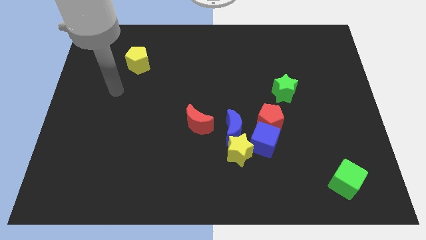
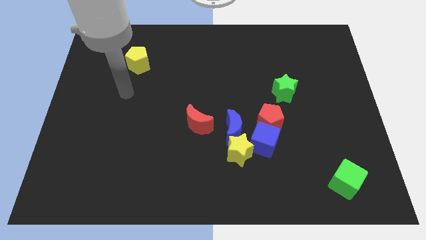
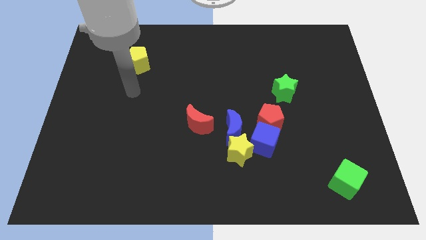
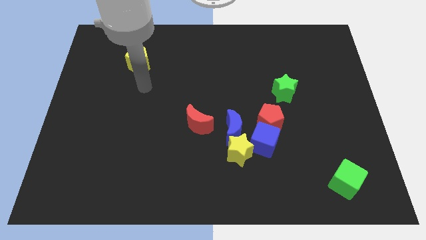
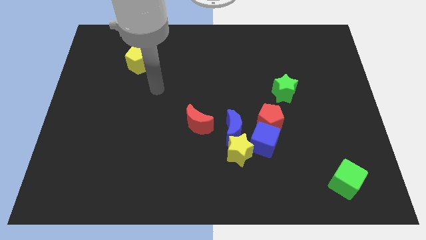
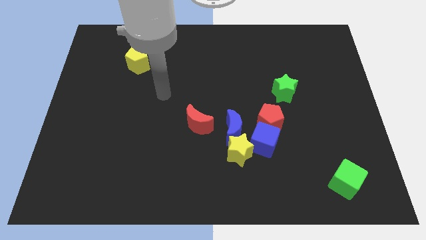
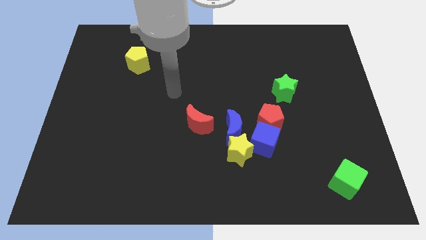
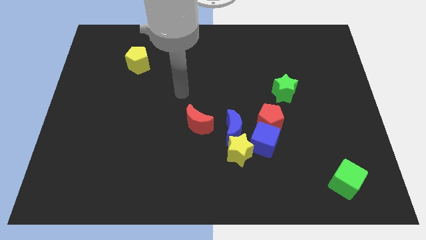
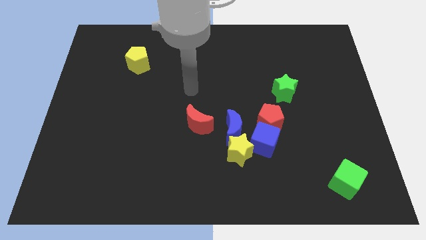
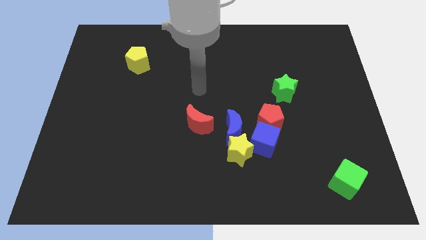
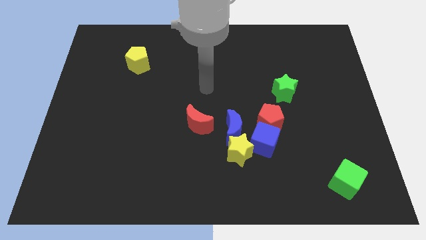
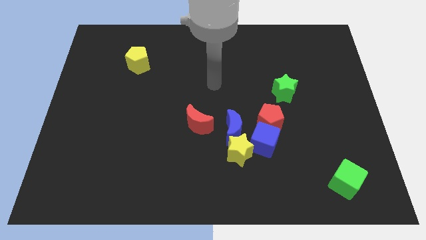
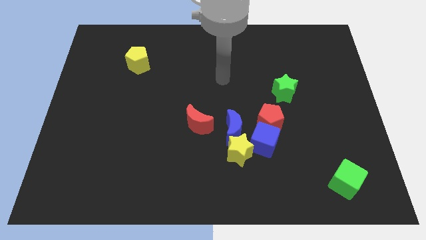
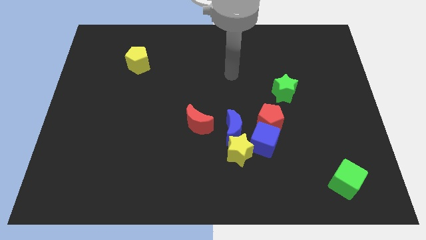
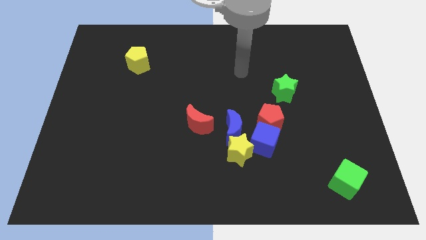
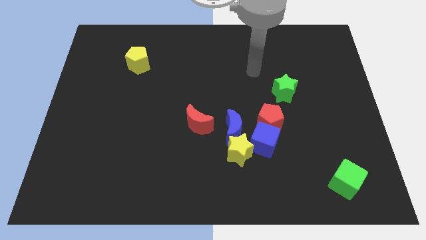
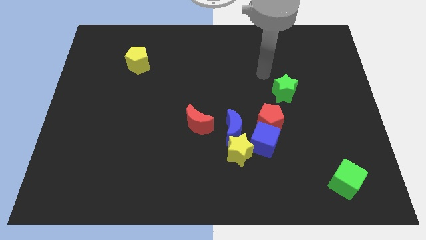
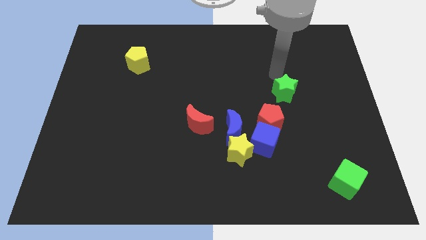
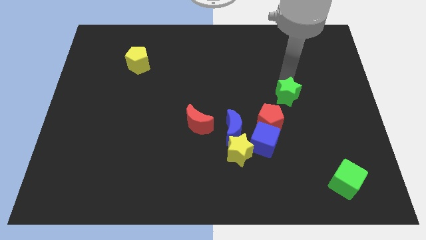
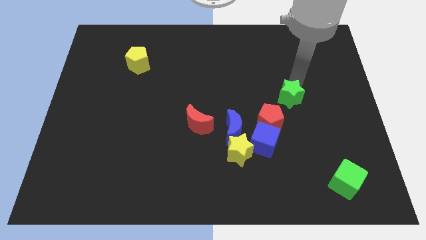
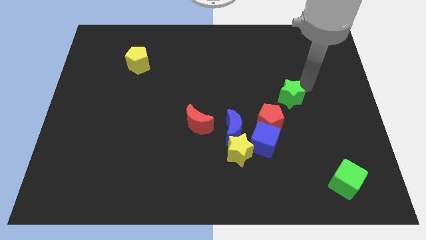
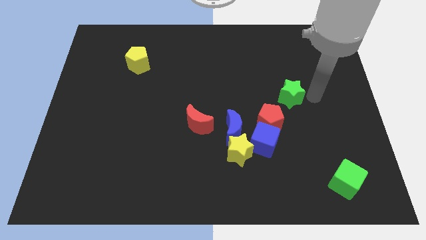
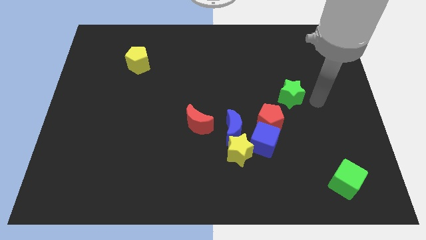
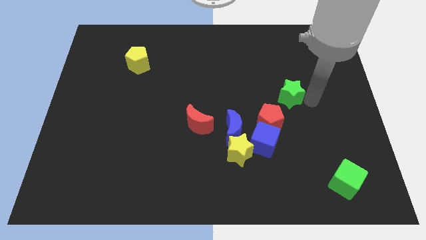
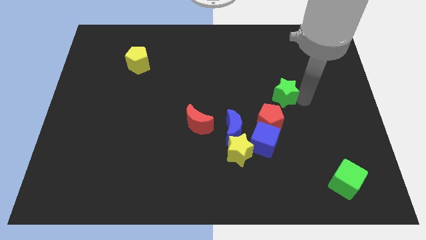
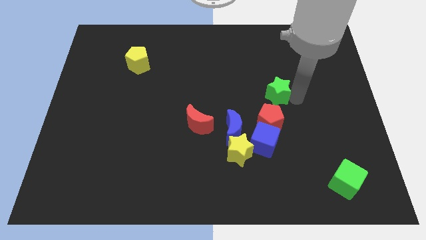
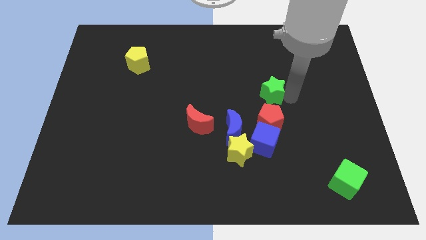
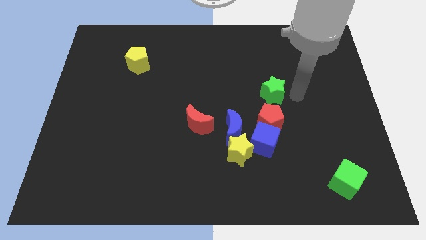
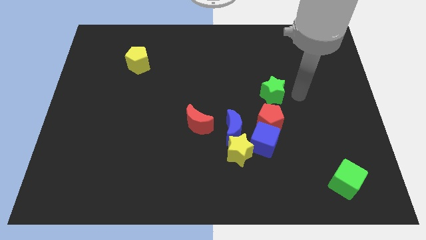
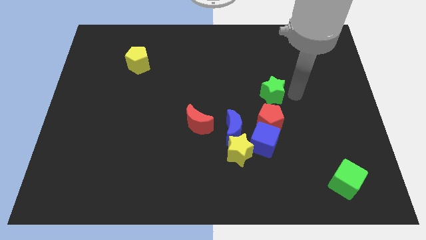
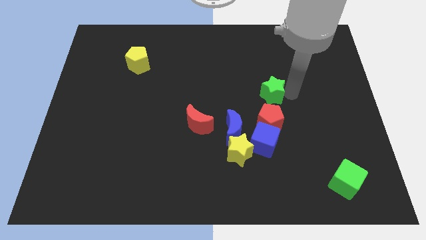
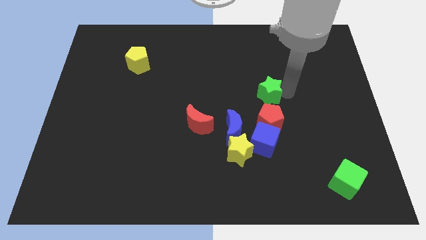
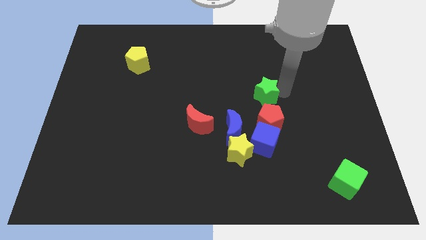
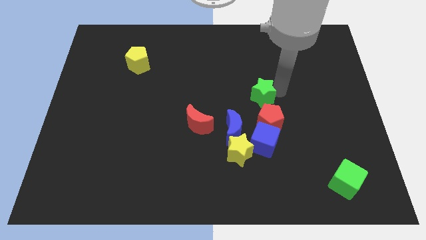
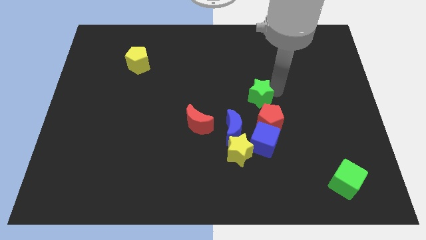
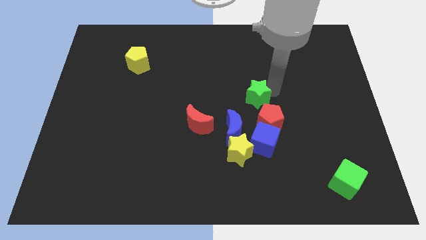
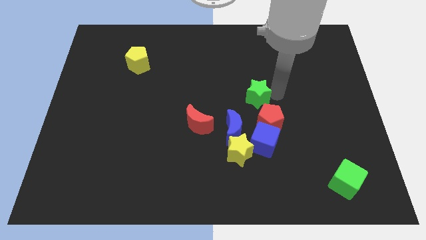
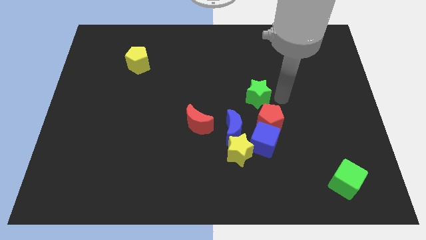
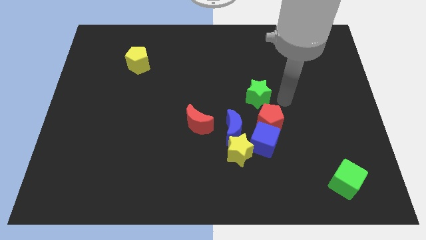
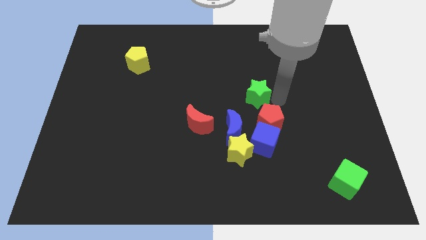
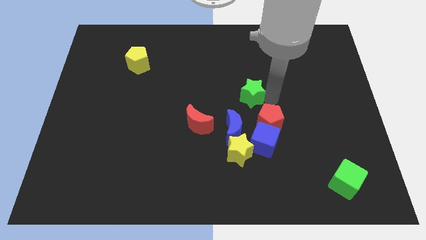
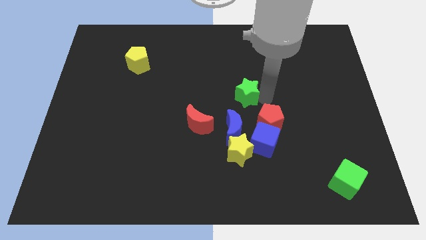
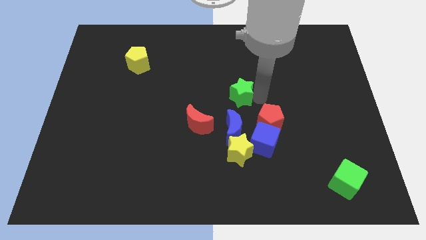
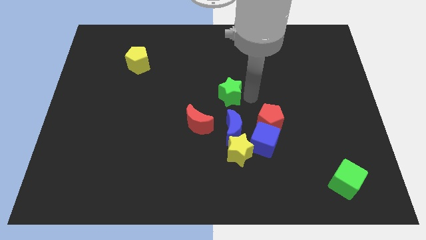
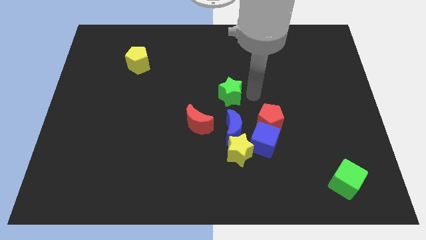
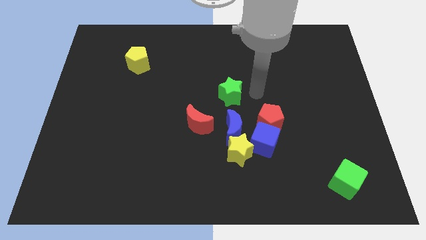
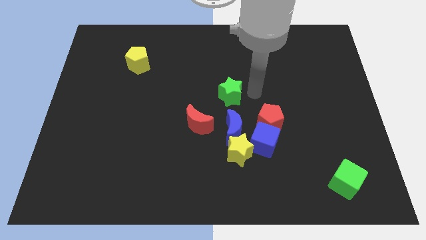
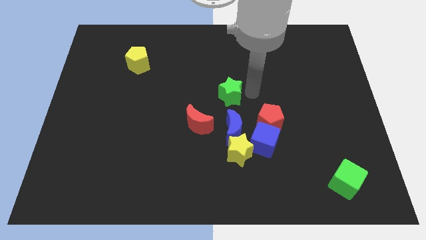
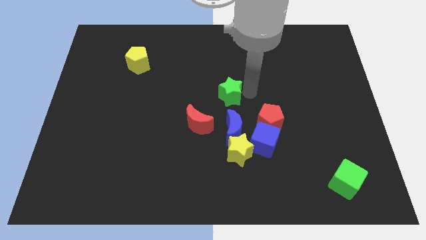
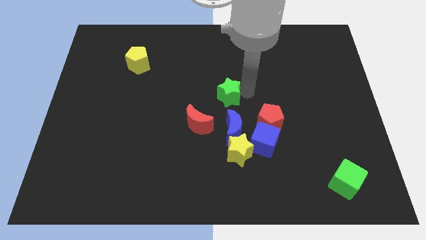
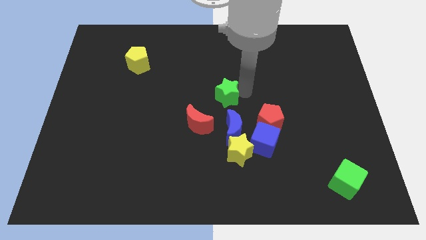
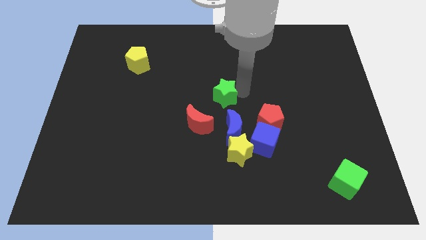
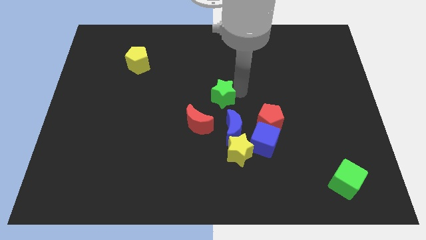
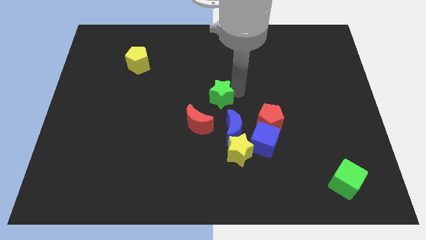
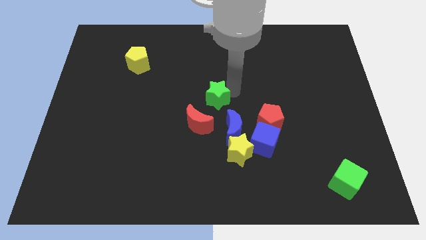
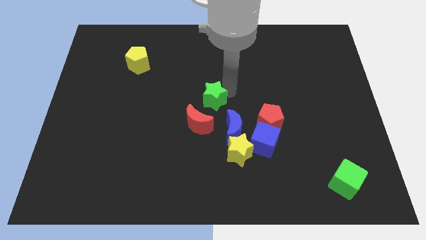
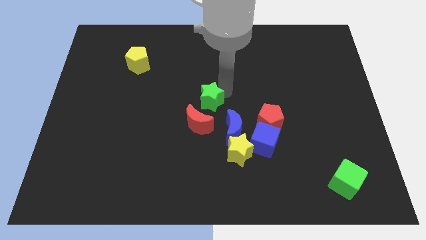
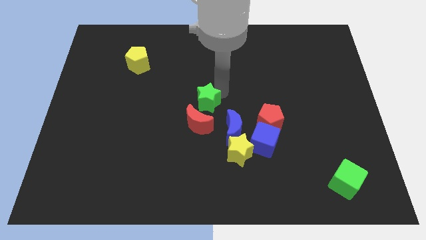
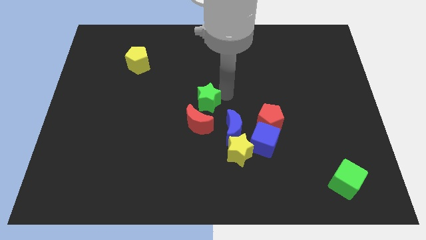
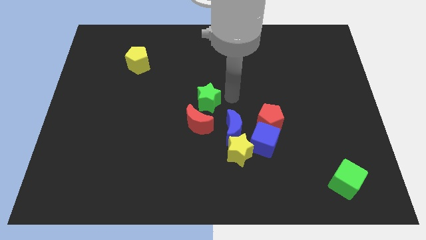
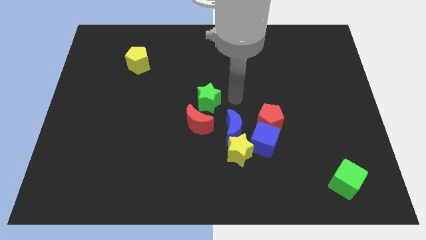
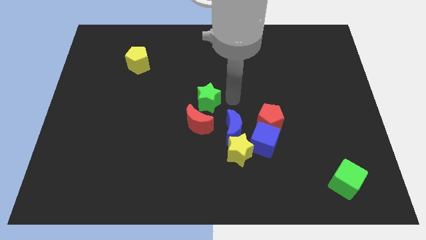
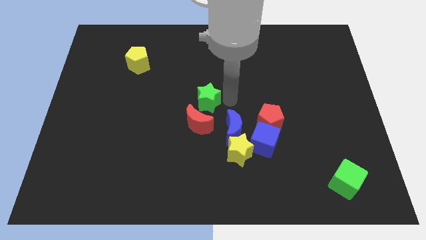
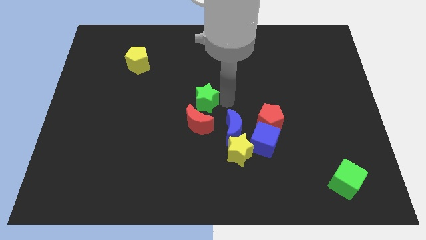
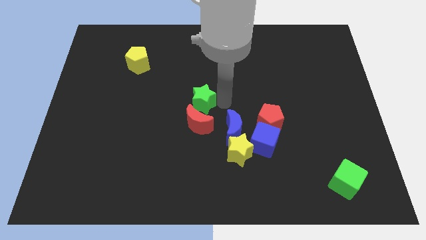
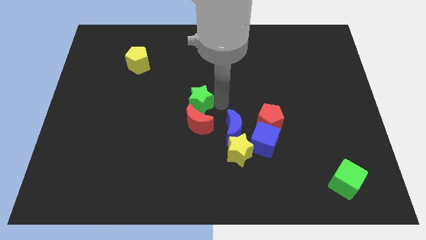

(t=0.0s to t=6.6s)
put the green star to the top left of the red moon

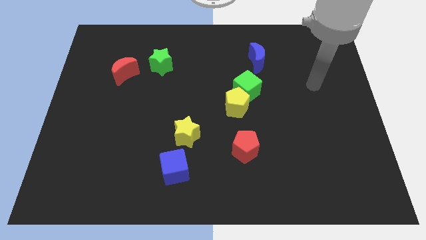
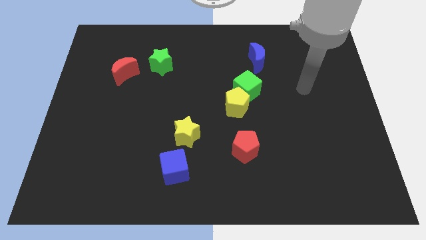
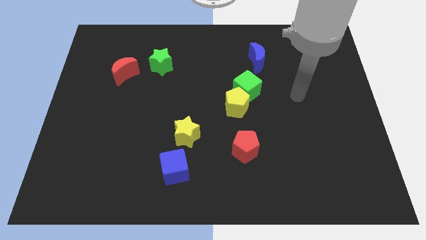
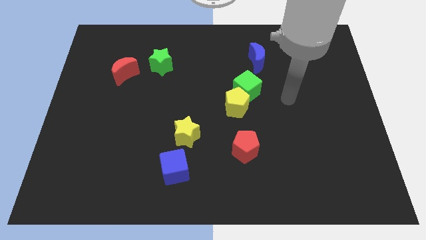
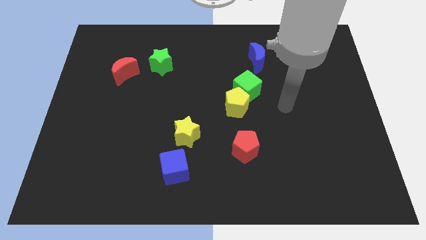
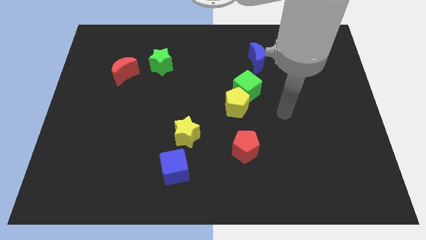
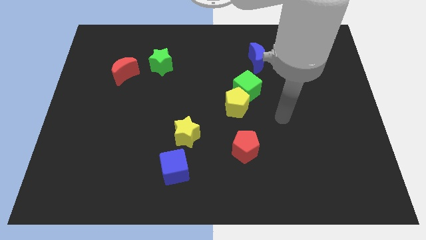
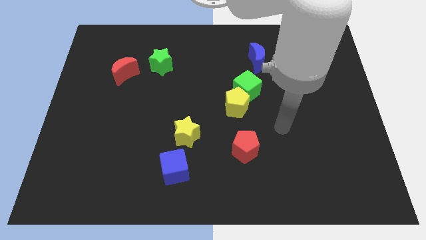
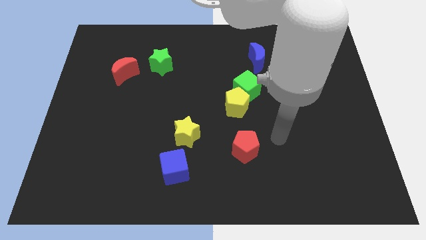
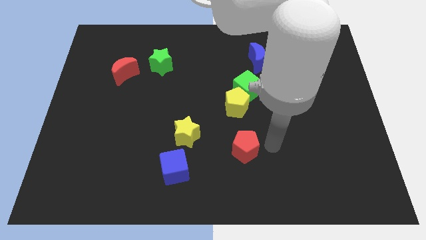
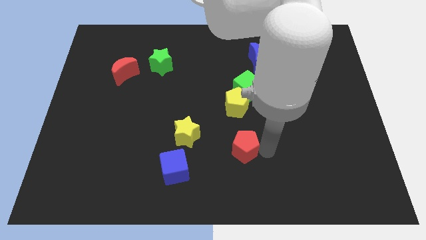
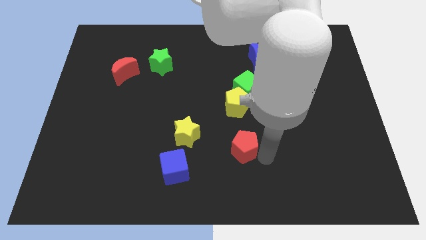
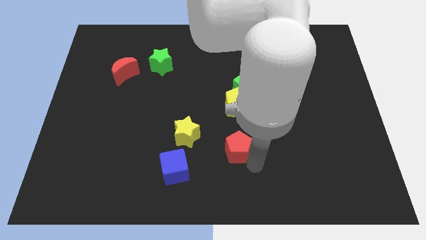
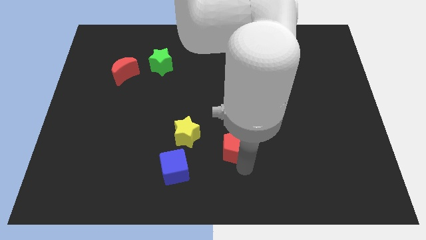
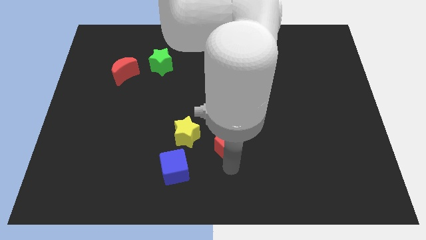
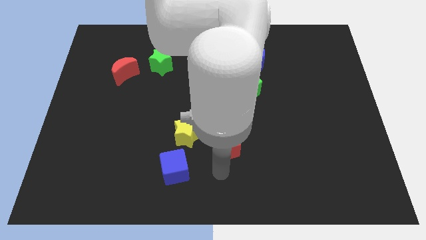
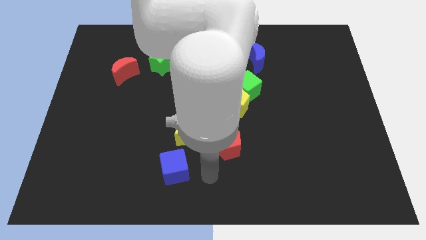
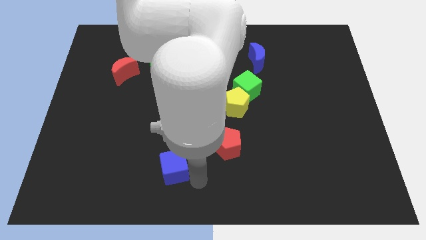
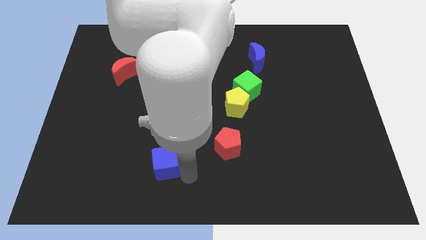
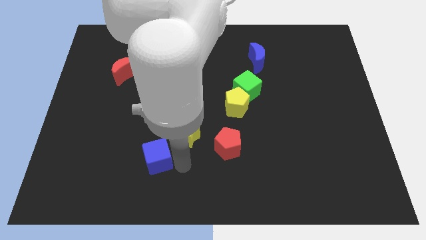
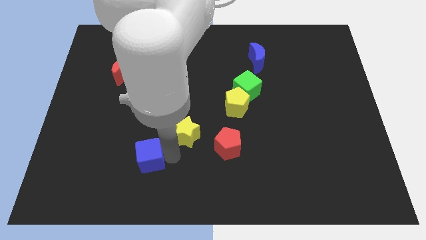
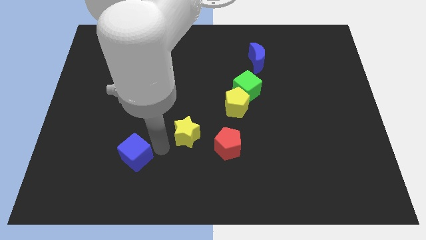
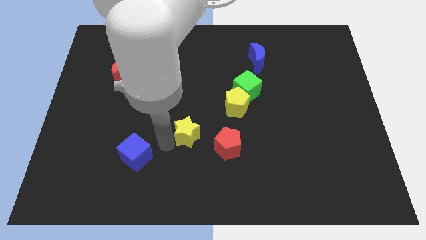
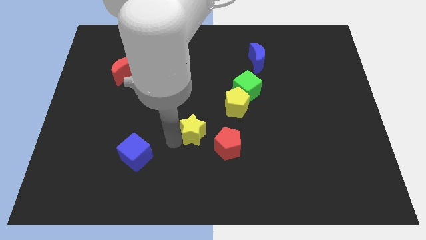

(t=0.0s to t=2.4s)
push the yellow star diagonally down and to the left of the yellow pentagon
